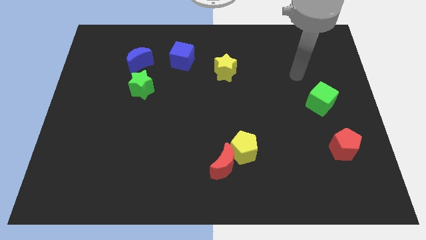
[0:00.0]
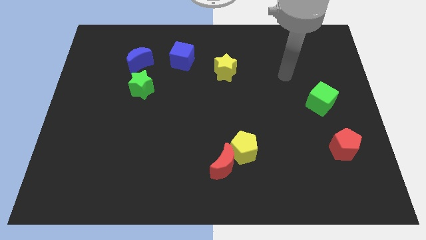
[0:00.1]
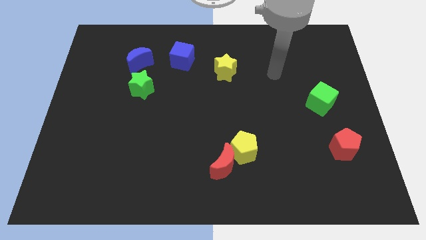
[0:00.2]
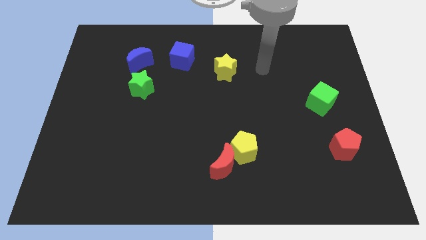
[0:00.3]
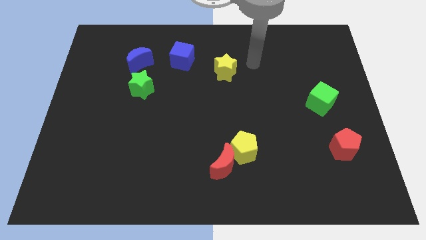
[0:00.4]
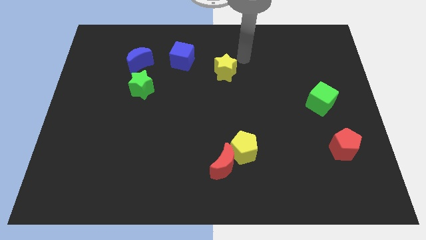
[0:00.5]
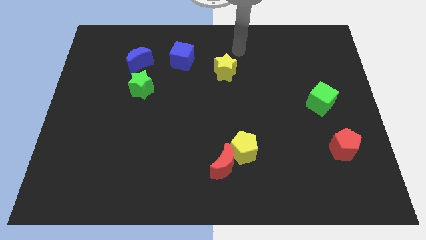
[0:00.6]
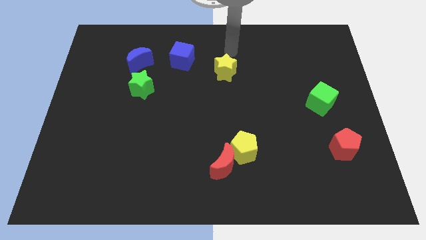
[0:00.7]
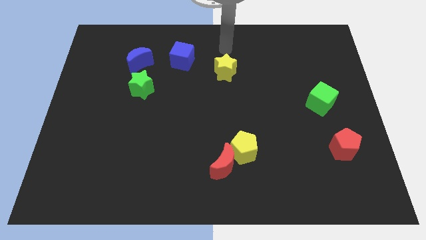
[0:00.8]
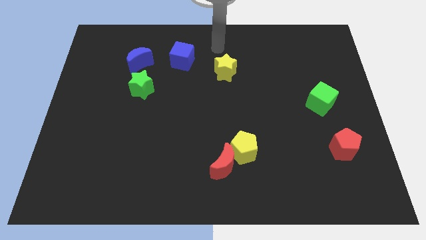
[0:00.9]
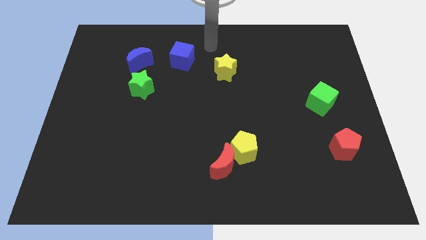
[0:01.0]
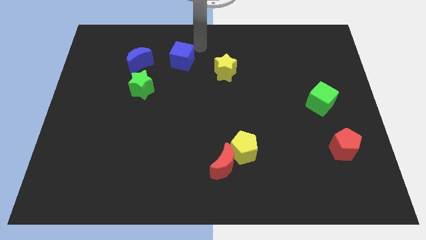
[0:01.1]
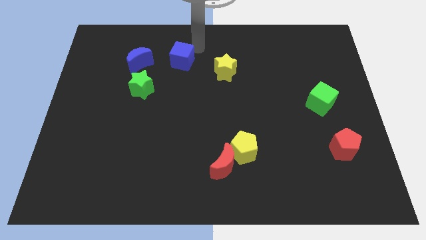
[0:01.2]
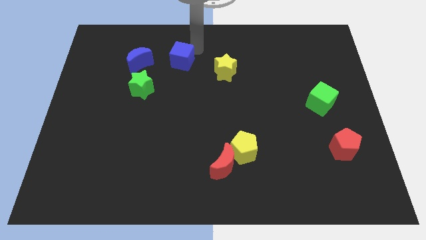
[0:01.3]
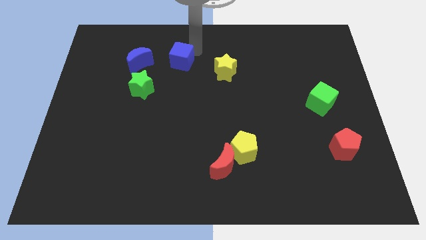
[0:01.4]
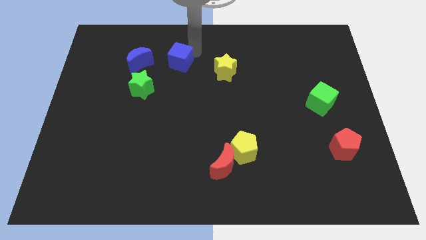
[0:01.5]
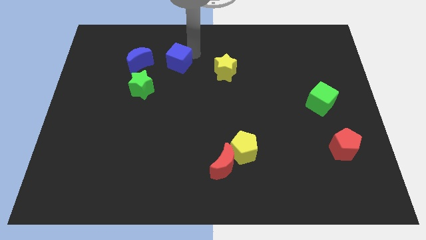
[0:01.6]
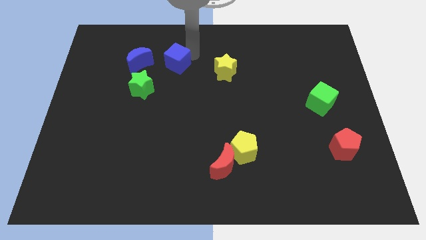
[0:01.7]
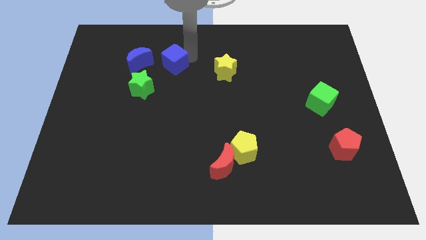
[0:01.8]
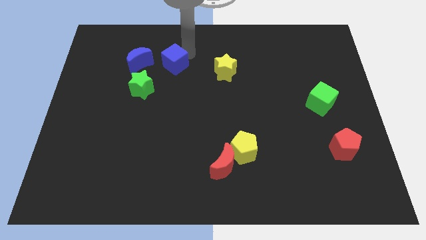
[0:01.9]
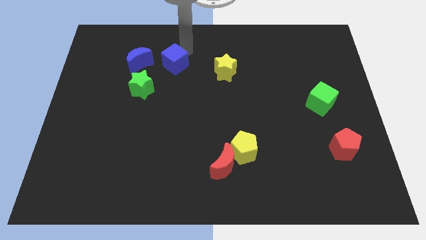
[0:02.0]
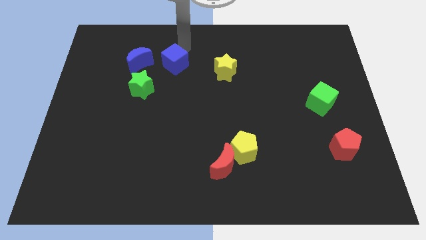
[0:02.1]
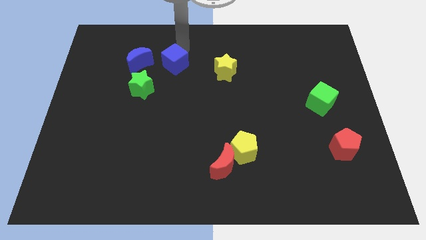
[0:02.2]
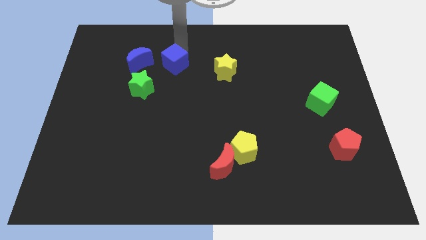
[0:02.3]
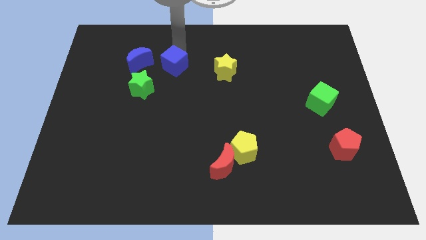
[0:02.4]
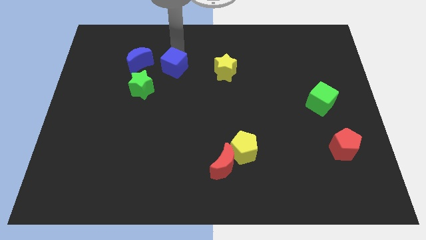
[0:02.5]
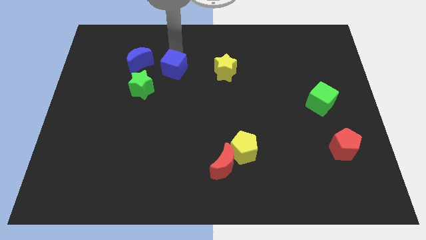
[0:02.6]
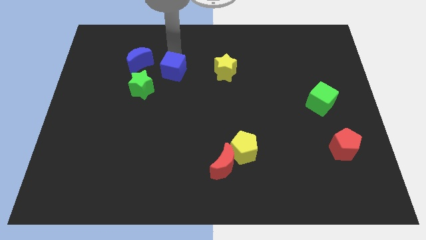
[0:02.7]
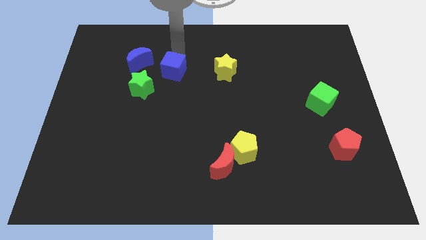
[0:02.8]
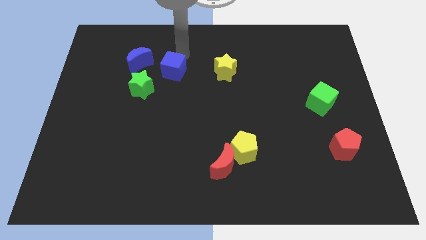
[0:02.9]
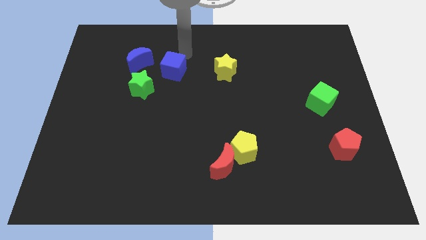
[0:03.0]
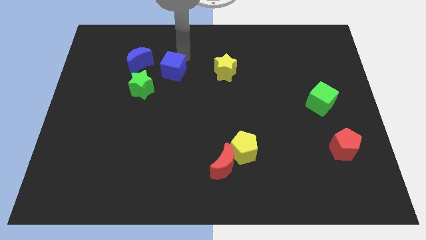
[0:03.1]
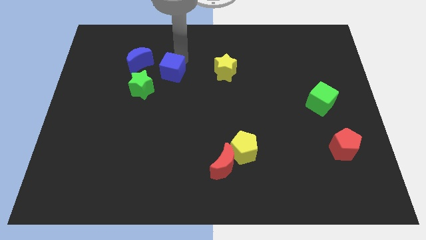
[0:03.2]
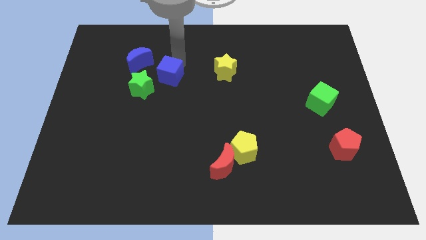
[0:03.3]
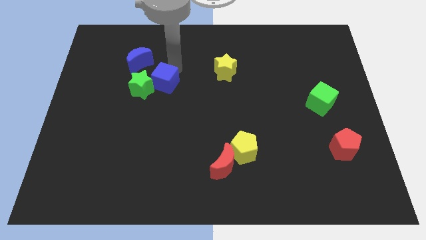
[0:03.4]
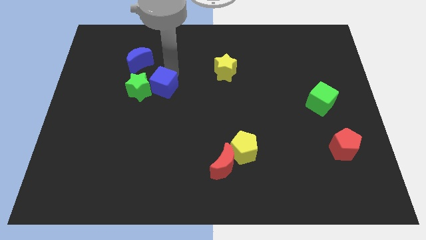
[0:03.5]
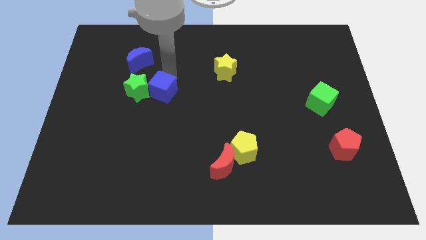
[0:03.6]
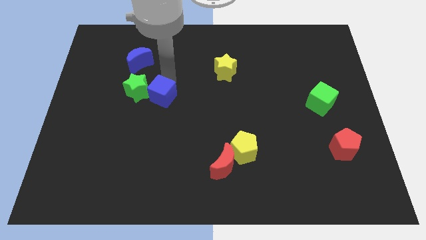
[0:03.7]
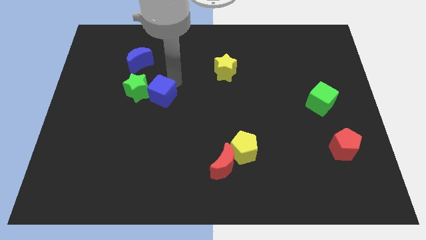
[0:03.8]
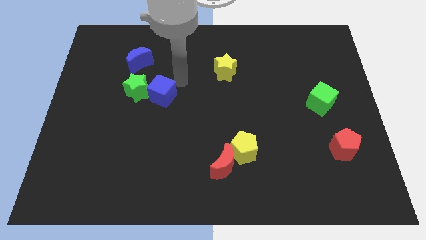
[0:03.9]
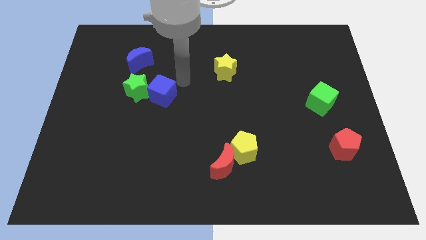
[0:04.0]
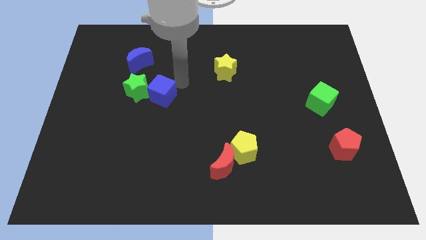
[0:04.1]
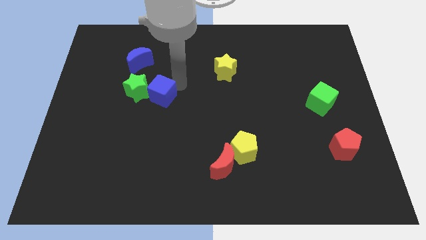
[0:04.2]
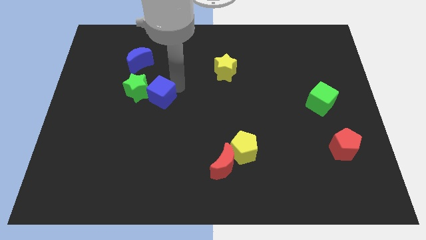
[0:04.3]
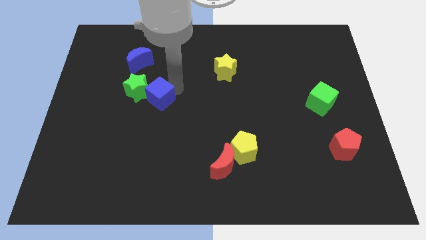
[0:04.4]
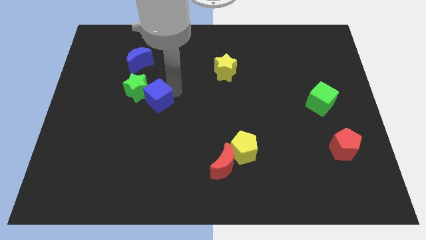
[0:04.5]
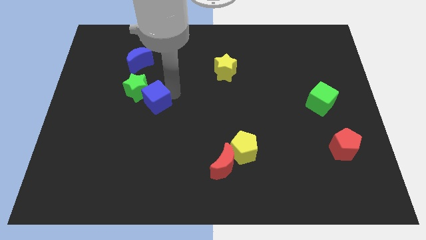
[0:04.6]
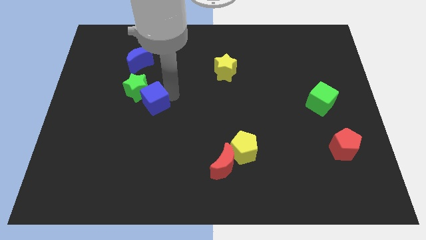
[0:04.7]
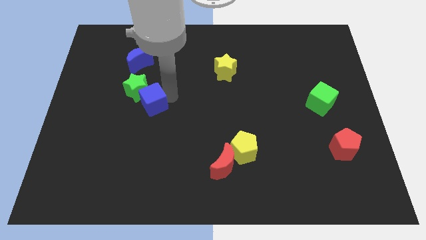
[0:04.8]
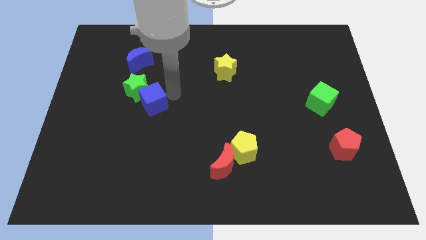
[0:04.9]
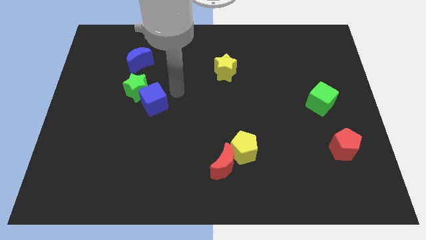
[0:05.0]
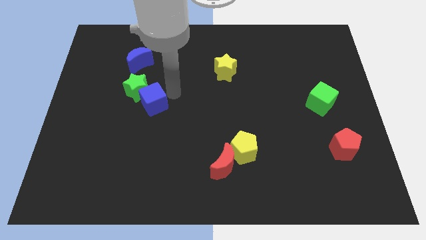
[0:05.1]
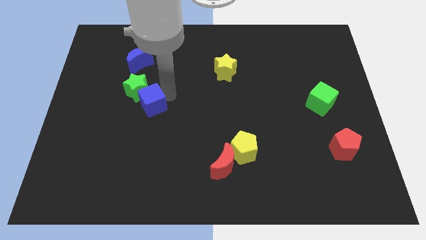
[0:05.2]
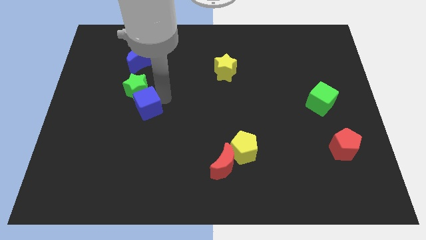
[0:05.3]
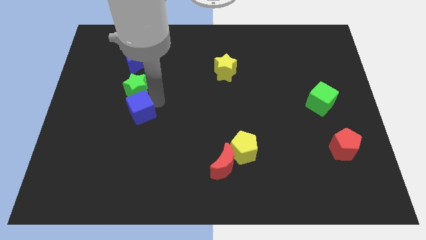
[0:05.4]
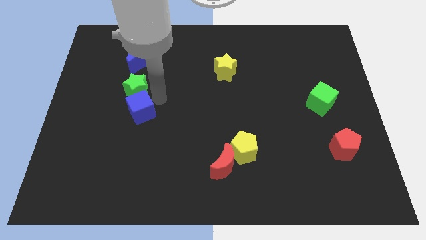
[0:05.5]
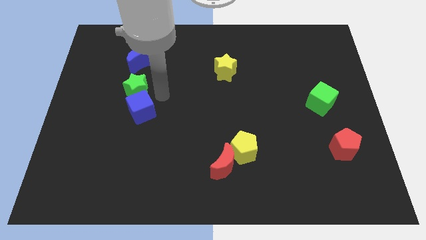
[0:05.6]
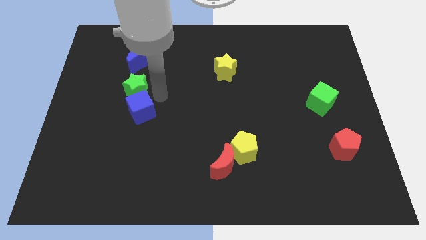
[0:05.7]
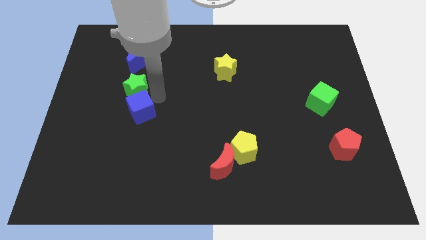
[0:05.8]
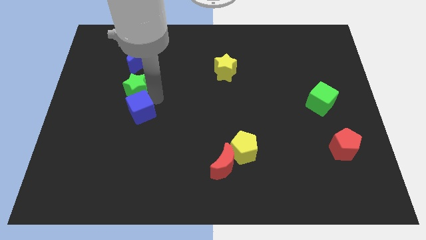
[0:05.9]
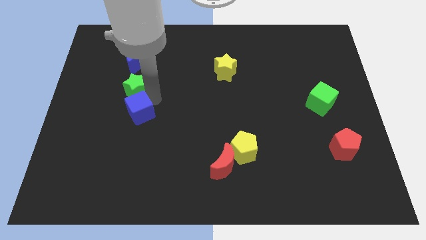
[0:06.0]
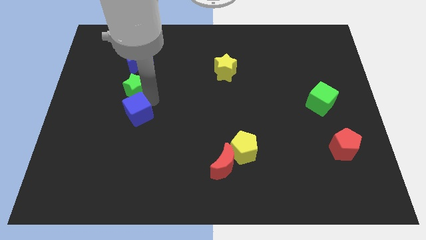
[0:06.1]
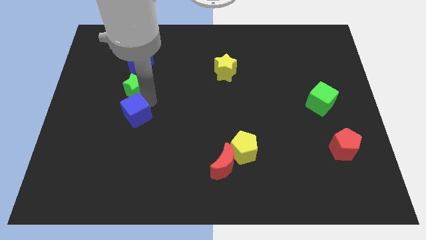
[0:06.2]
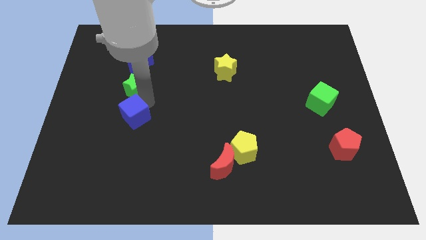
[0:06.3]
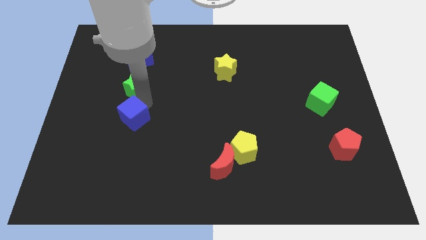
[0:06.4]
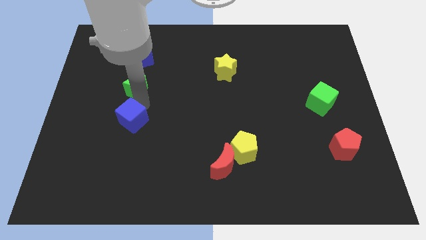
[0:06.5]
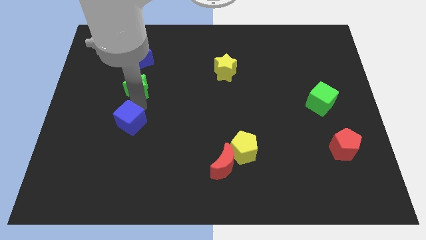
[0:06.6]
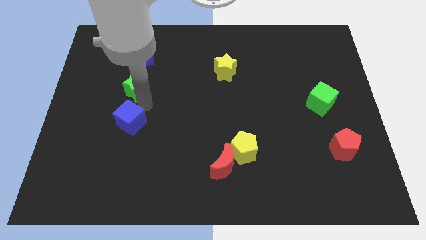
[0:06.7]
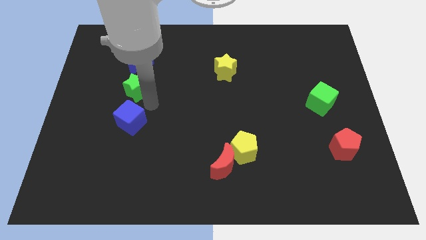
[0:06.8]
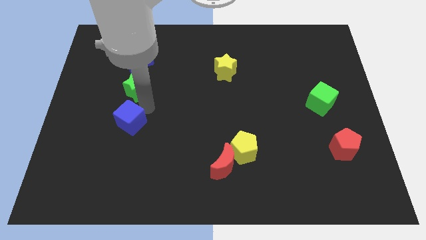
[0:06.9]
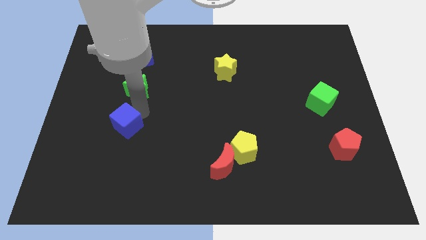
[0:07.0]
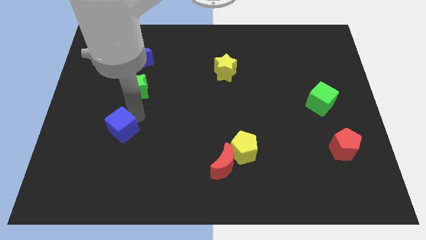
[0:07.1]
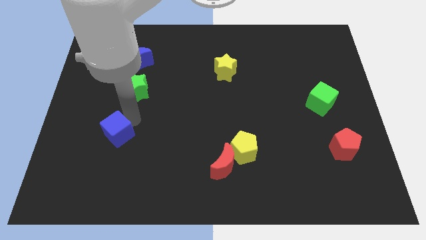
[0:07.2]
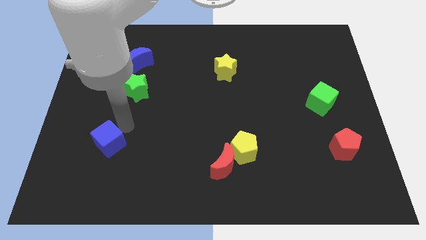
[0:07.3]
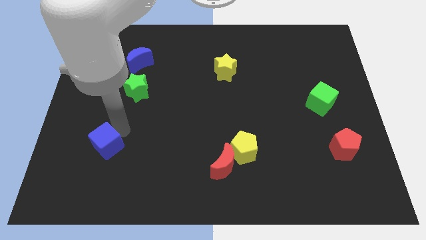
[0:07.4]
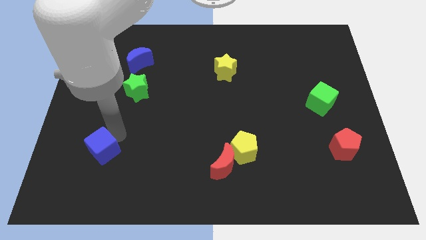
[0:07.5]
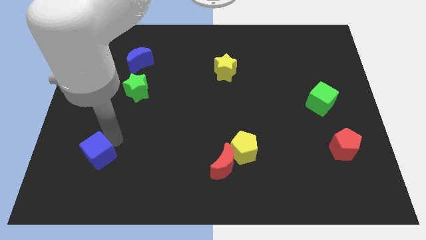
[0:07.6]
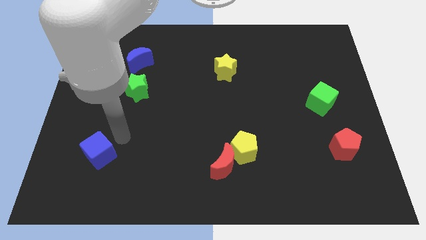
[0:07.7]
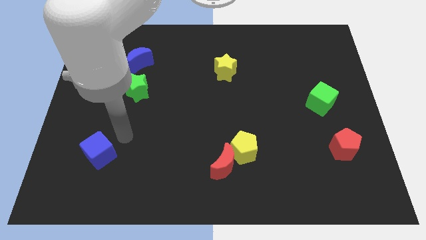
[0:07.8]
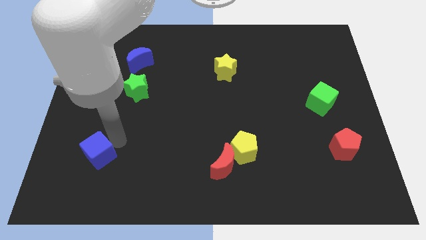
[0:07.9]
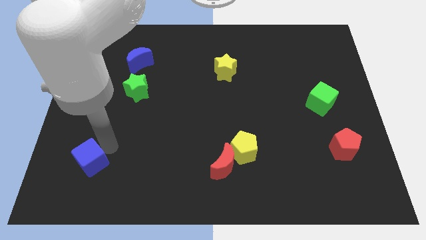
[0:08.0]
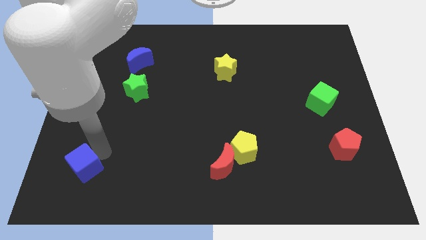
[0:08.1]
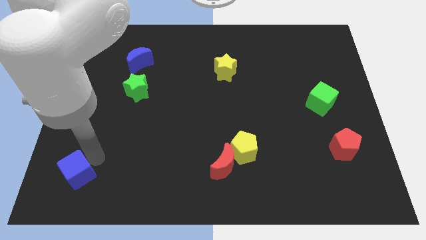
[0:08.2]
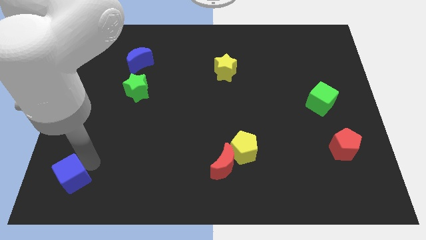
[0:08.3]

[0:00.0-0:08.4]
move the blue cube to the bottom left of the board
